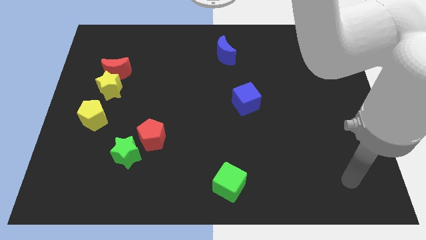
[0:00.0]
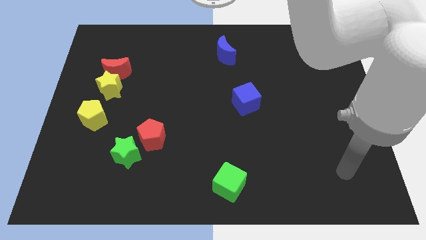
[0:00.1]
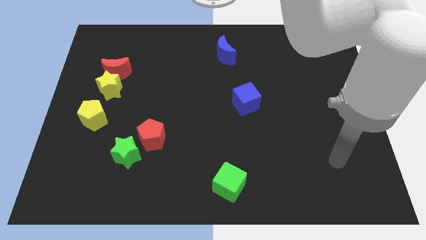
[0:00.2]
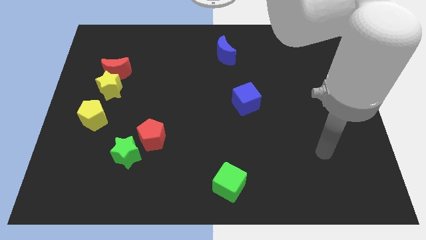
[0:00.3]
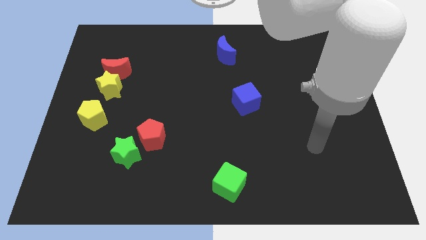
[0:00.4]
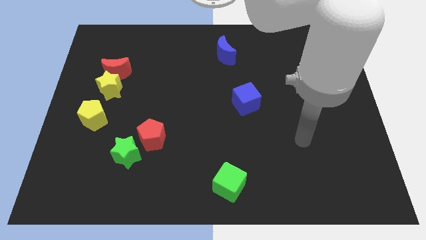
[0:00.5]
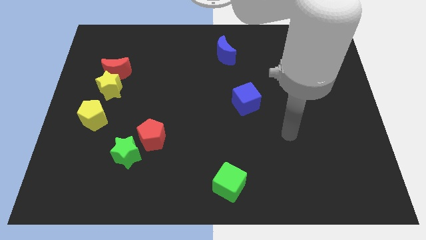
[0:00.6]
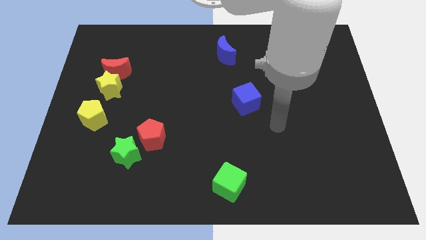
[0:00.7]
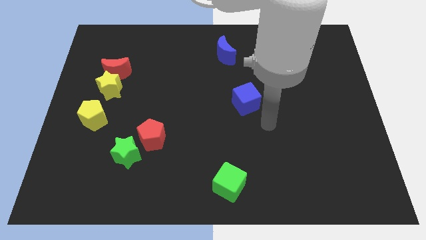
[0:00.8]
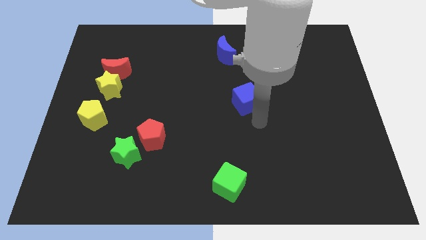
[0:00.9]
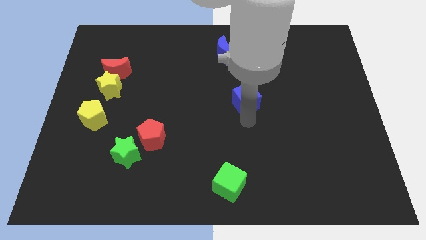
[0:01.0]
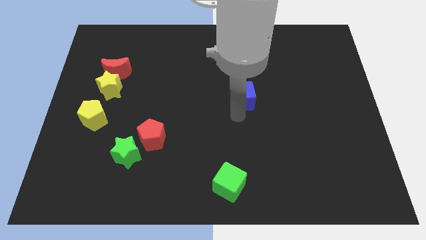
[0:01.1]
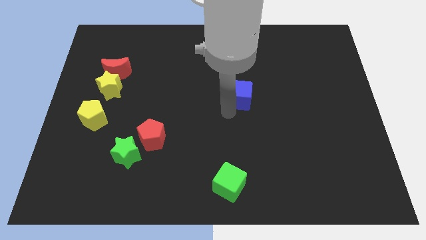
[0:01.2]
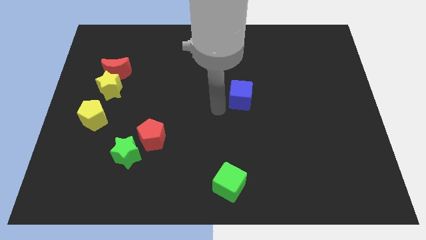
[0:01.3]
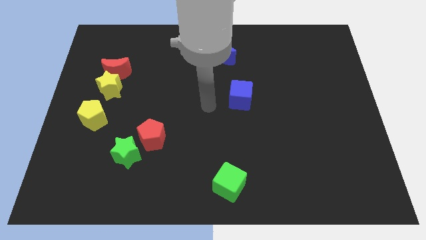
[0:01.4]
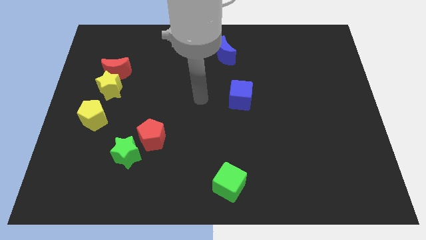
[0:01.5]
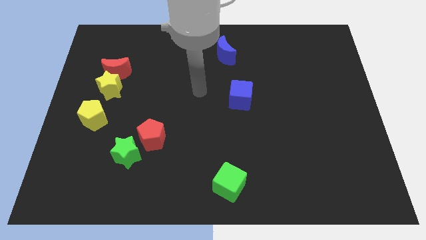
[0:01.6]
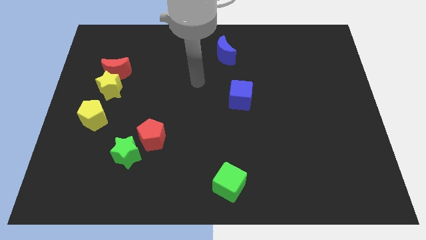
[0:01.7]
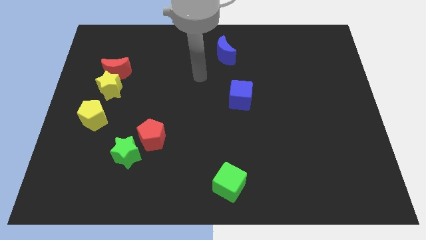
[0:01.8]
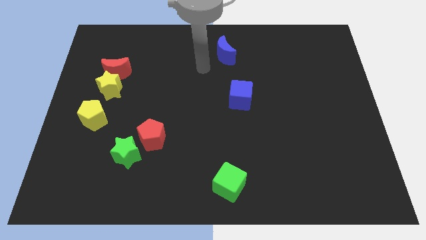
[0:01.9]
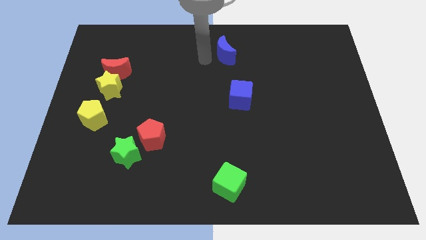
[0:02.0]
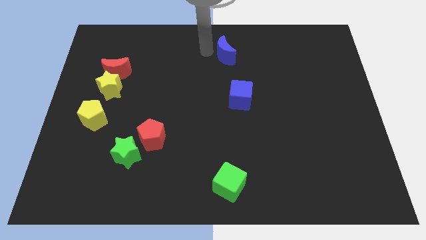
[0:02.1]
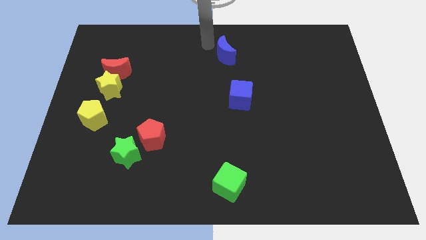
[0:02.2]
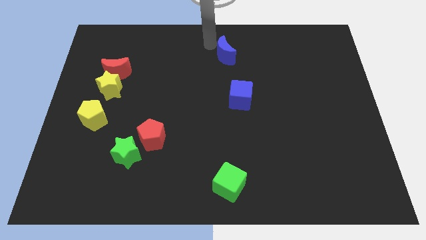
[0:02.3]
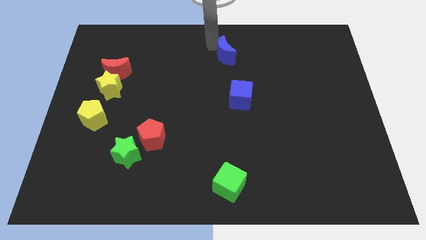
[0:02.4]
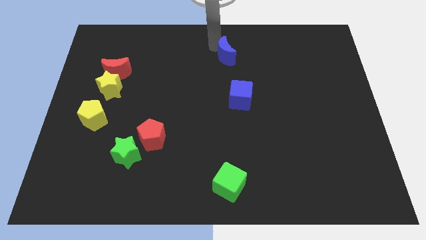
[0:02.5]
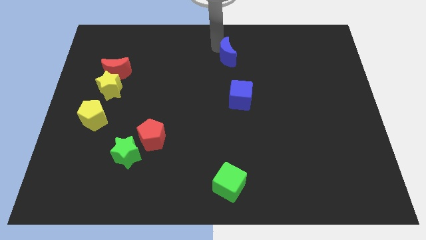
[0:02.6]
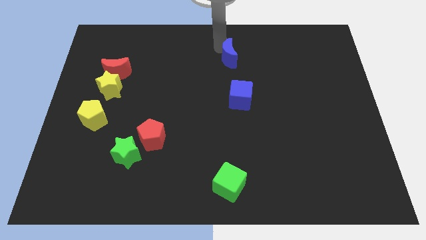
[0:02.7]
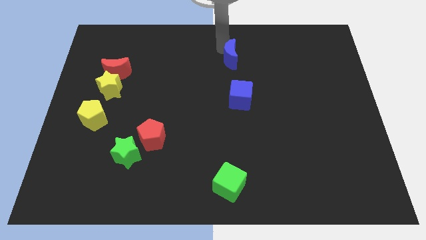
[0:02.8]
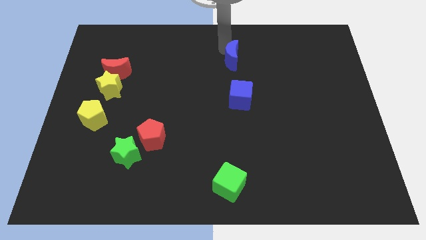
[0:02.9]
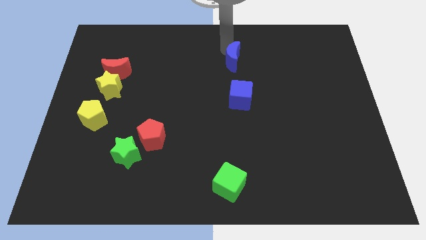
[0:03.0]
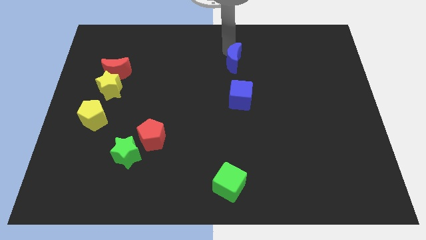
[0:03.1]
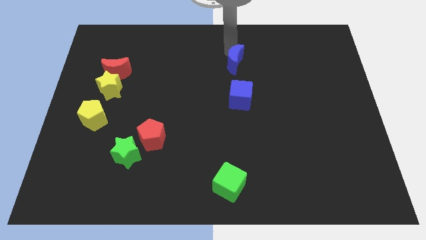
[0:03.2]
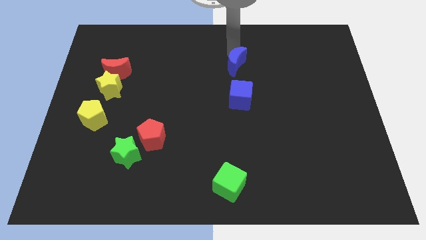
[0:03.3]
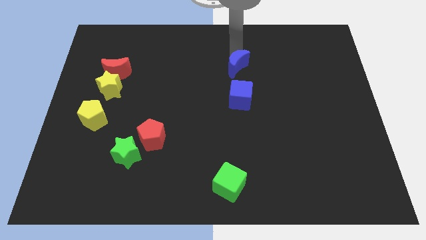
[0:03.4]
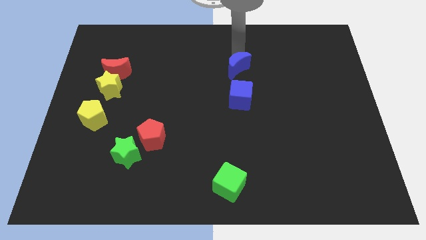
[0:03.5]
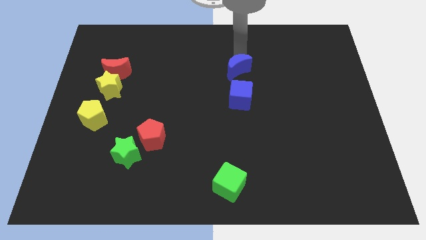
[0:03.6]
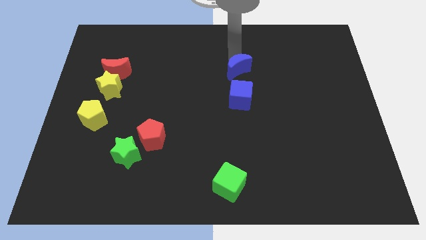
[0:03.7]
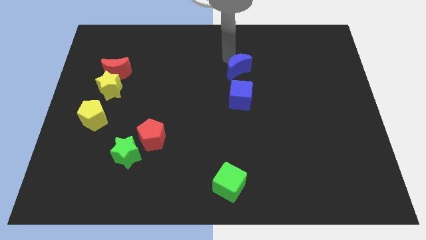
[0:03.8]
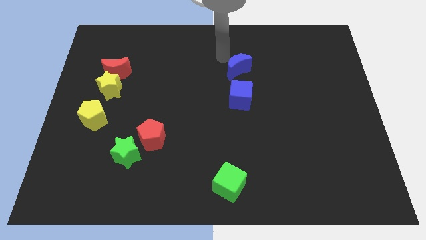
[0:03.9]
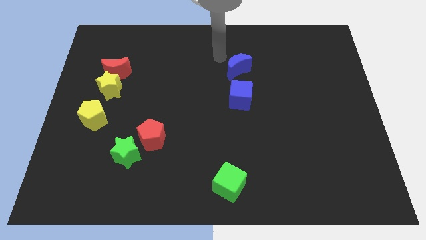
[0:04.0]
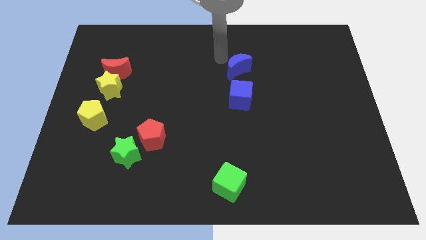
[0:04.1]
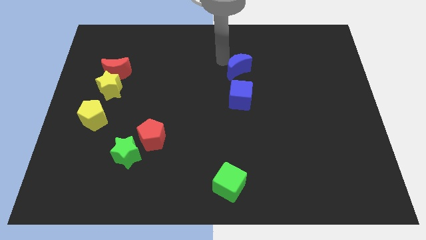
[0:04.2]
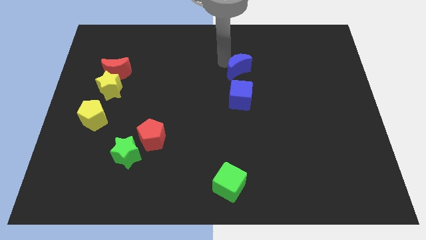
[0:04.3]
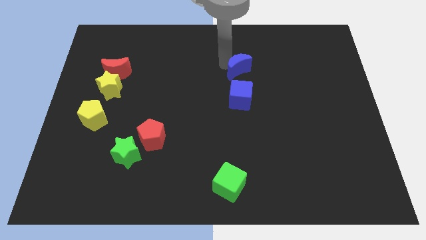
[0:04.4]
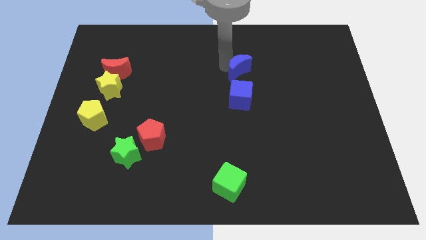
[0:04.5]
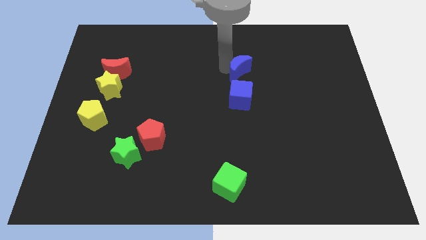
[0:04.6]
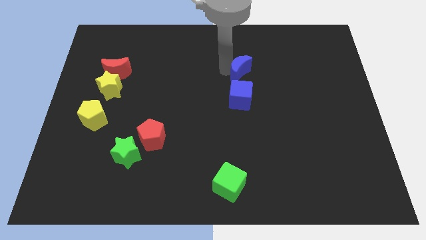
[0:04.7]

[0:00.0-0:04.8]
slightly move the blue moon diagonally down and to the right

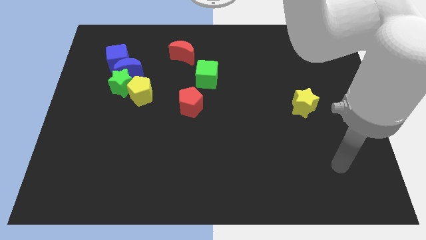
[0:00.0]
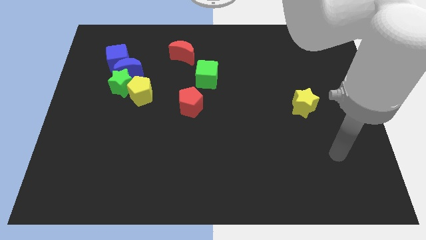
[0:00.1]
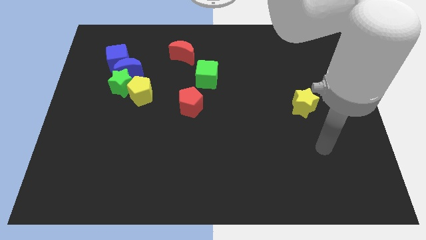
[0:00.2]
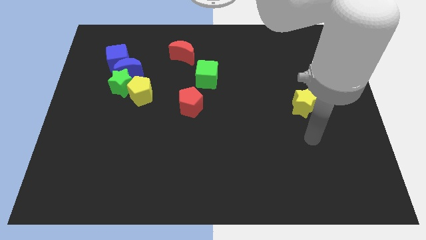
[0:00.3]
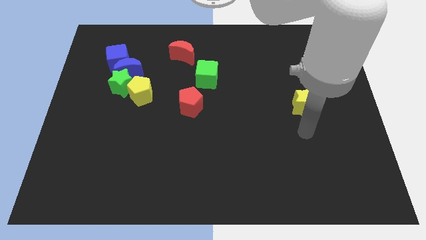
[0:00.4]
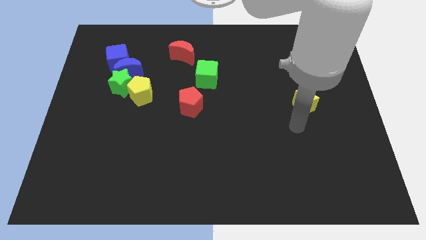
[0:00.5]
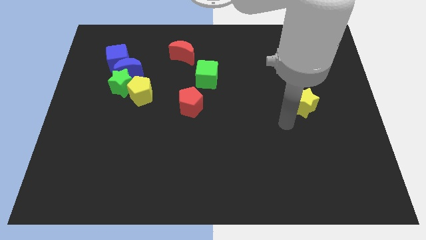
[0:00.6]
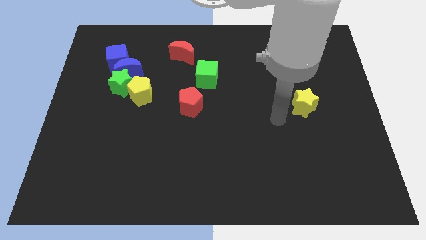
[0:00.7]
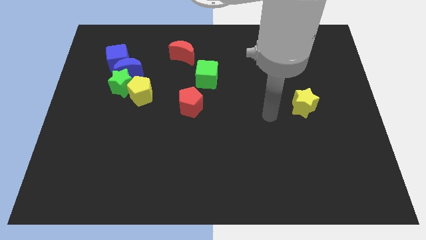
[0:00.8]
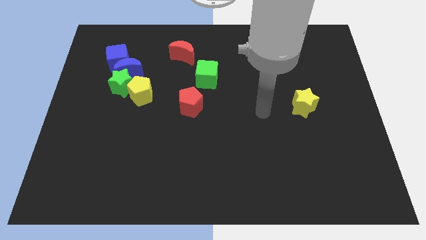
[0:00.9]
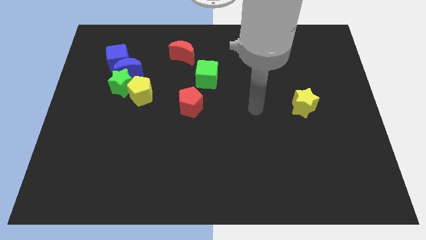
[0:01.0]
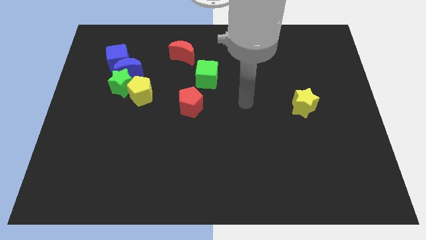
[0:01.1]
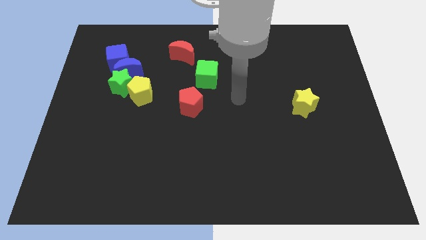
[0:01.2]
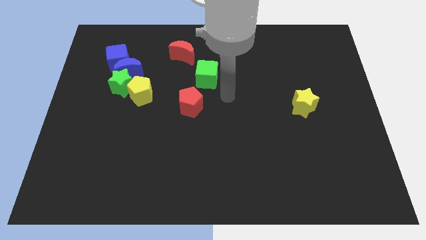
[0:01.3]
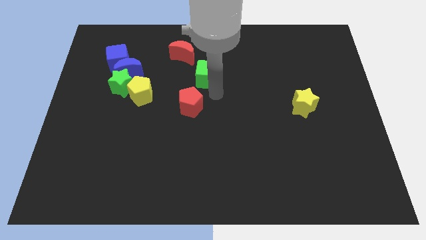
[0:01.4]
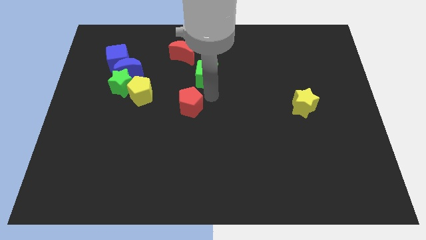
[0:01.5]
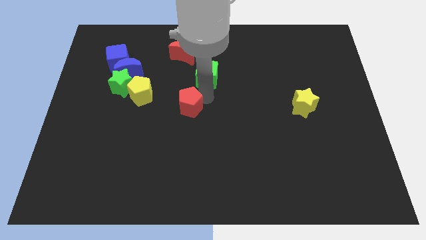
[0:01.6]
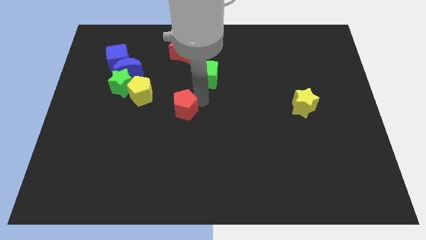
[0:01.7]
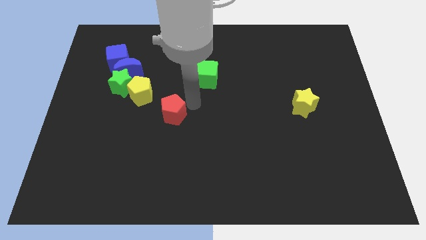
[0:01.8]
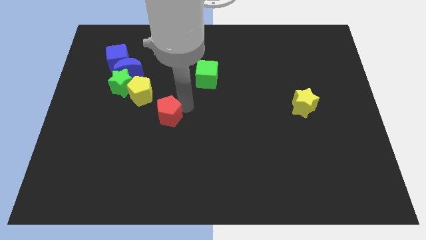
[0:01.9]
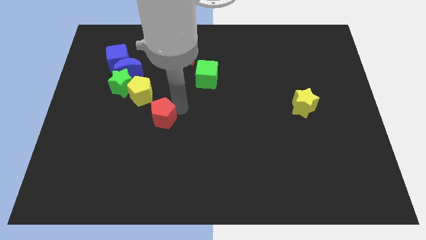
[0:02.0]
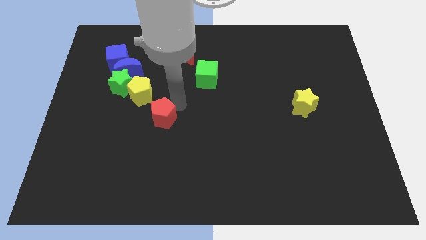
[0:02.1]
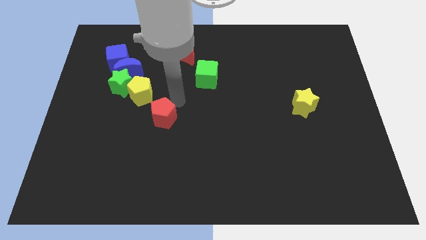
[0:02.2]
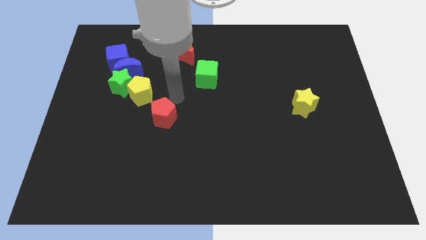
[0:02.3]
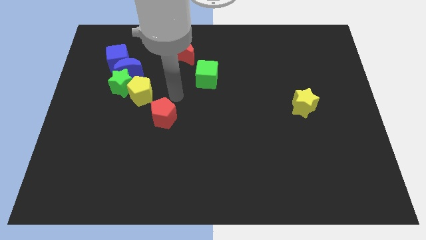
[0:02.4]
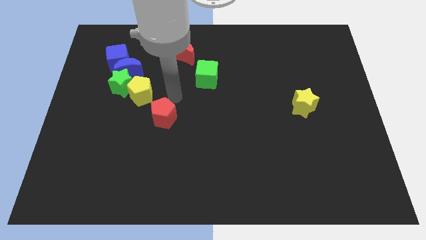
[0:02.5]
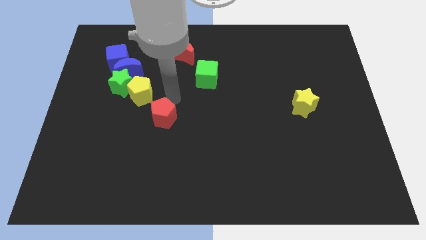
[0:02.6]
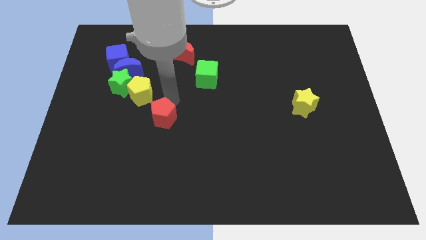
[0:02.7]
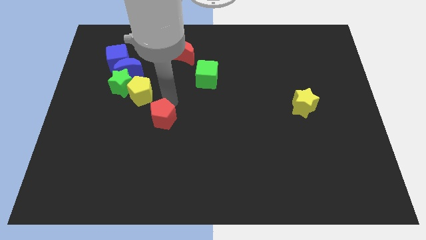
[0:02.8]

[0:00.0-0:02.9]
move the red pentagon diagonally downwards and to the left slightly
